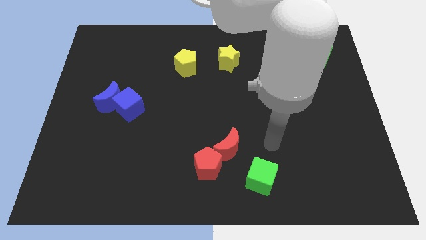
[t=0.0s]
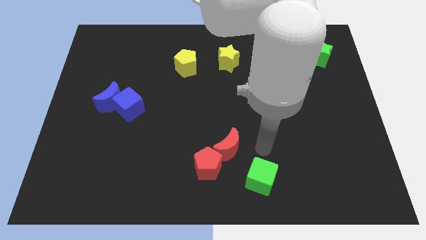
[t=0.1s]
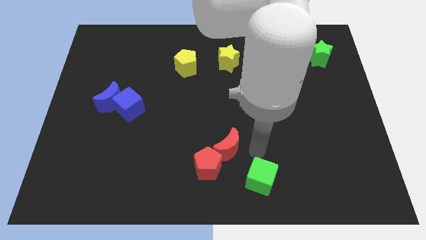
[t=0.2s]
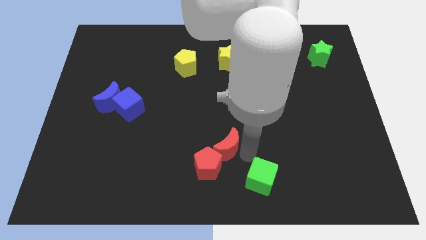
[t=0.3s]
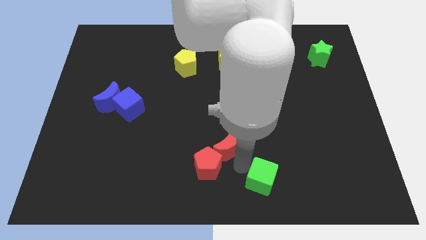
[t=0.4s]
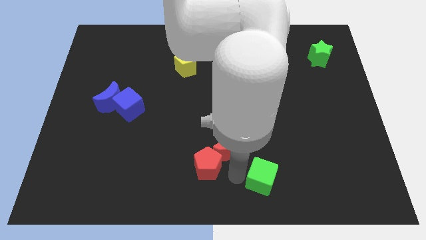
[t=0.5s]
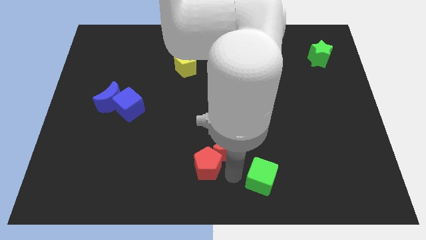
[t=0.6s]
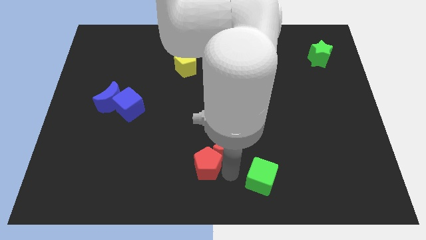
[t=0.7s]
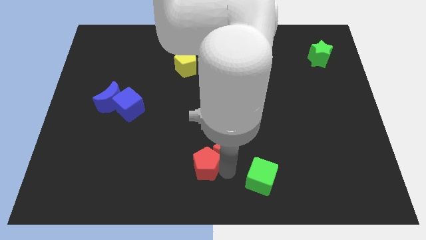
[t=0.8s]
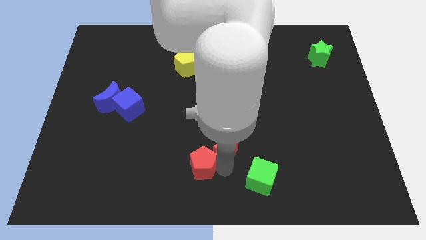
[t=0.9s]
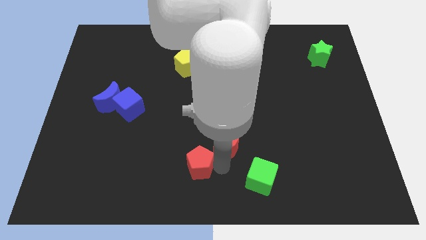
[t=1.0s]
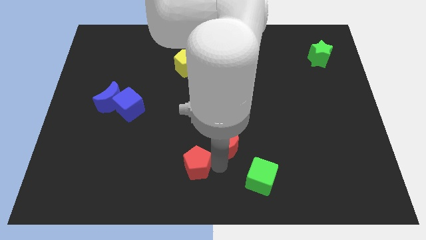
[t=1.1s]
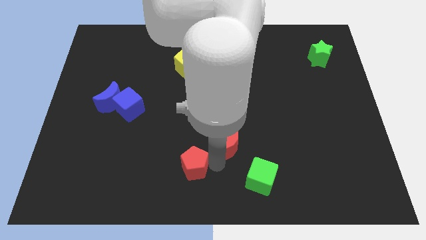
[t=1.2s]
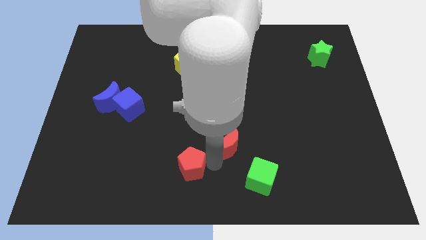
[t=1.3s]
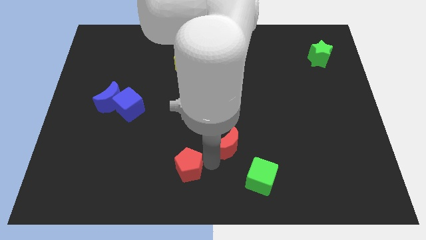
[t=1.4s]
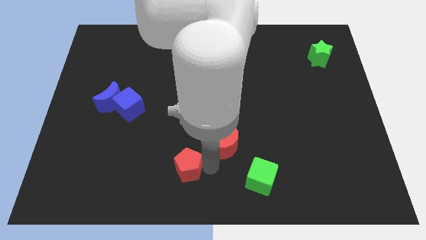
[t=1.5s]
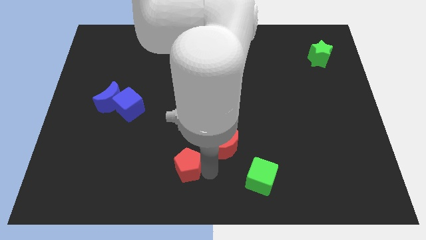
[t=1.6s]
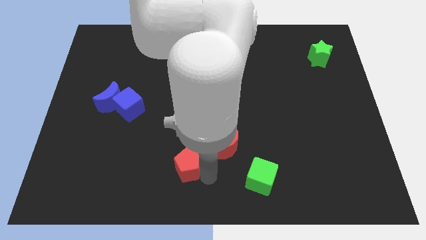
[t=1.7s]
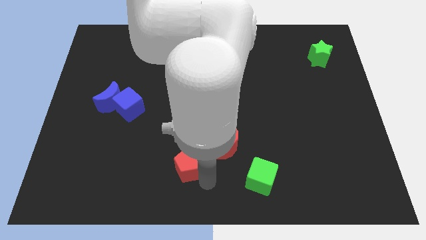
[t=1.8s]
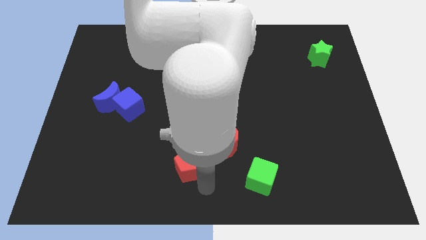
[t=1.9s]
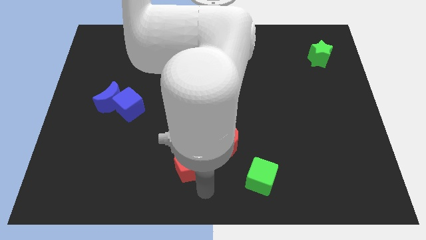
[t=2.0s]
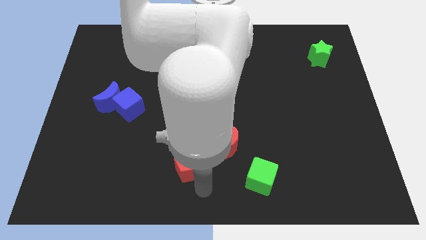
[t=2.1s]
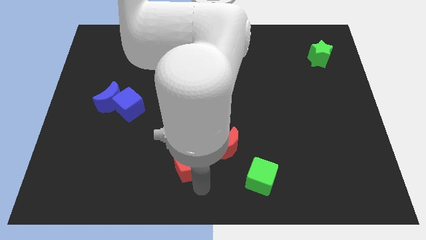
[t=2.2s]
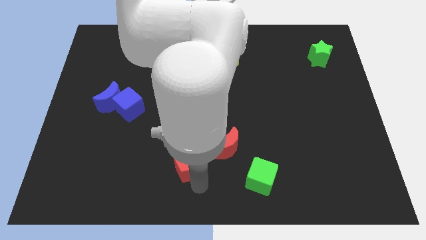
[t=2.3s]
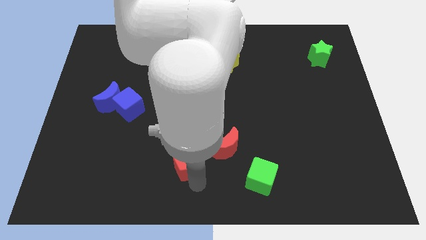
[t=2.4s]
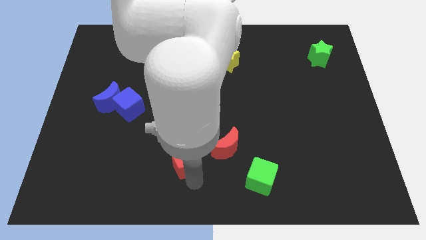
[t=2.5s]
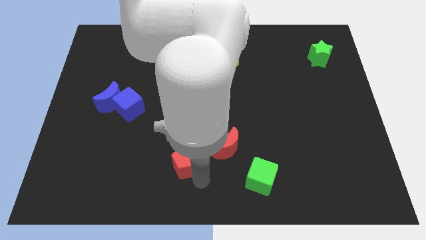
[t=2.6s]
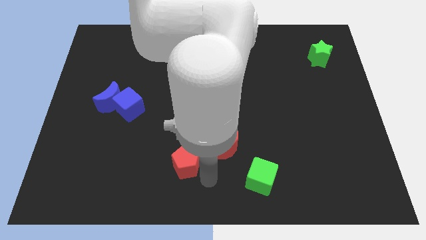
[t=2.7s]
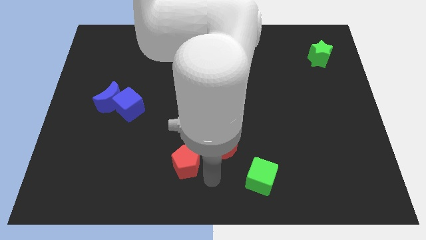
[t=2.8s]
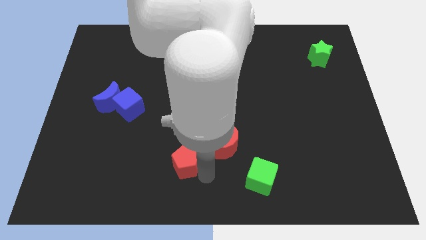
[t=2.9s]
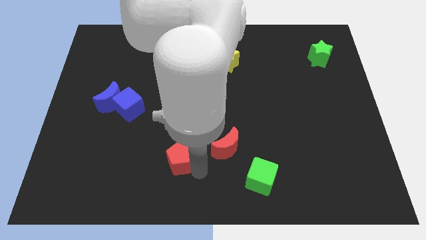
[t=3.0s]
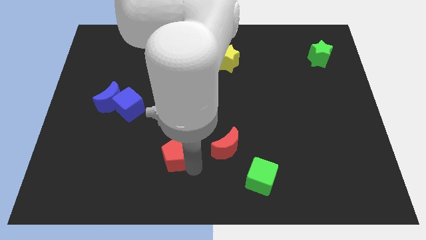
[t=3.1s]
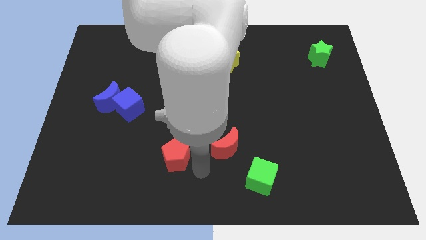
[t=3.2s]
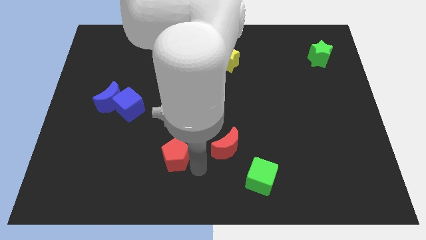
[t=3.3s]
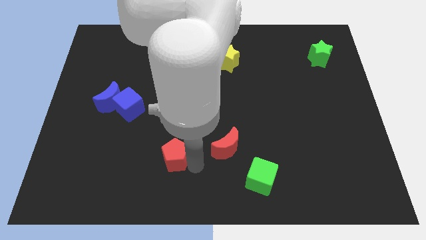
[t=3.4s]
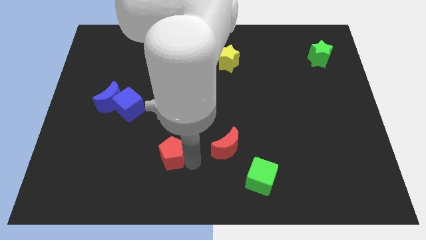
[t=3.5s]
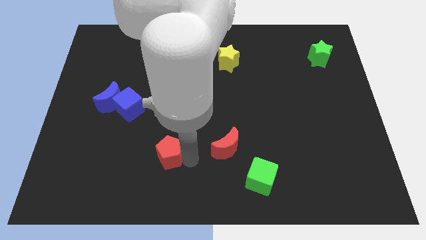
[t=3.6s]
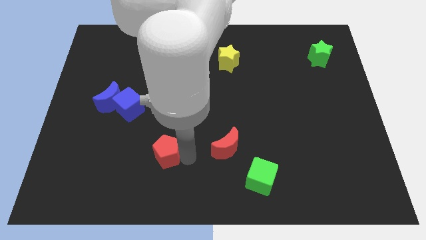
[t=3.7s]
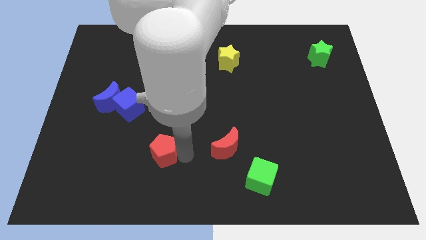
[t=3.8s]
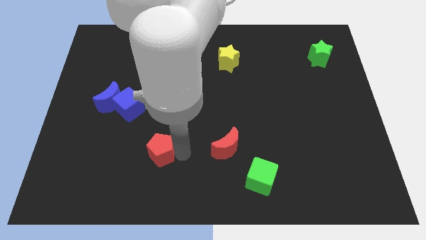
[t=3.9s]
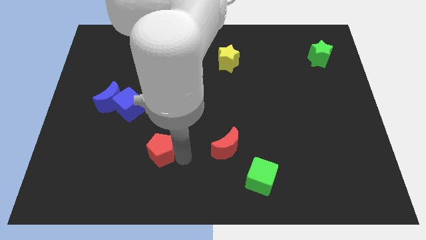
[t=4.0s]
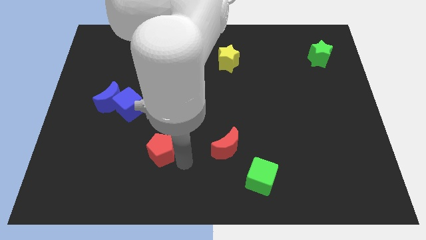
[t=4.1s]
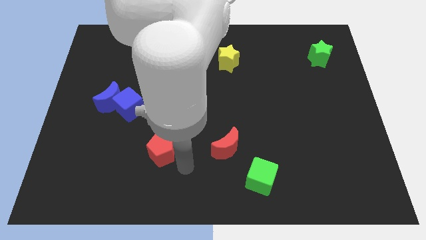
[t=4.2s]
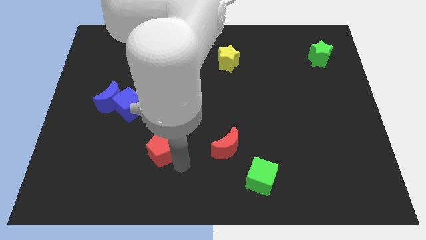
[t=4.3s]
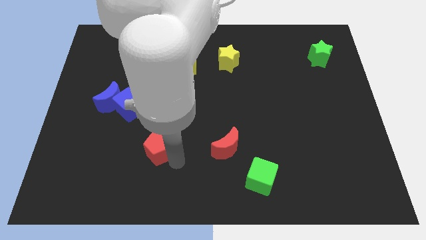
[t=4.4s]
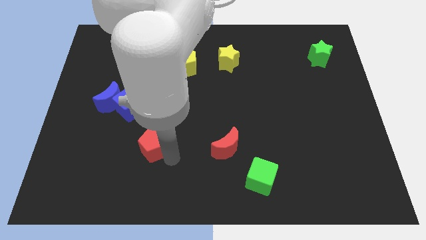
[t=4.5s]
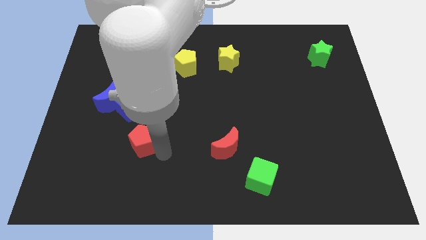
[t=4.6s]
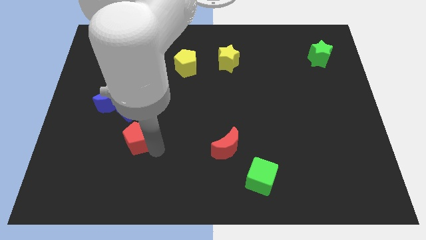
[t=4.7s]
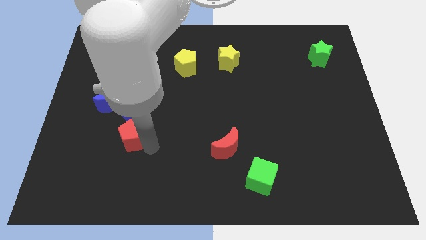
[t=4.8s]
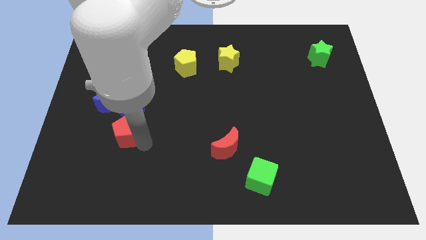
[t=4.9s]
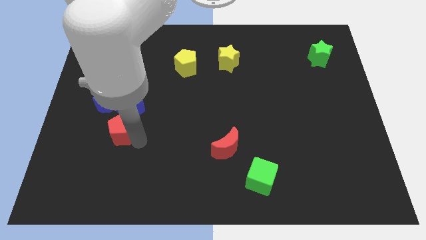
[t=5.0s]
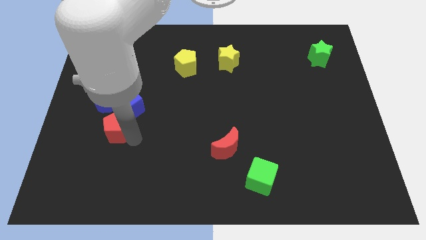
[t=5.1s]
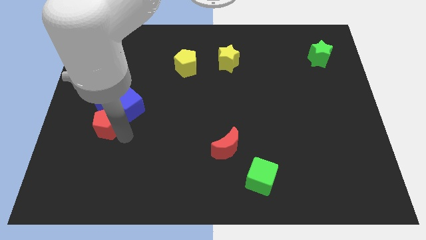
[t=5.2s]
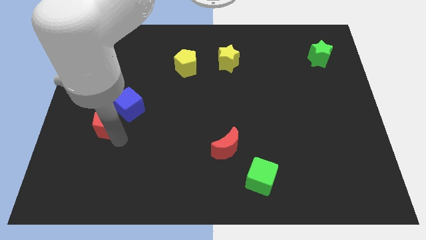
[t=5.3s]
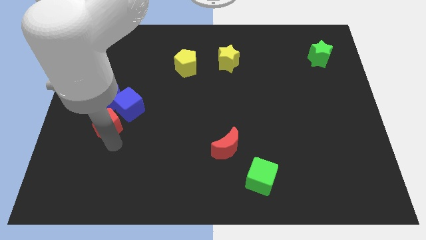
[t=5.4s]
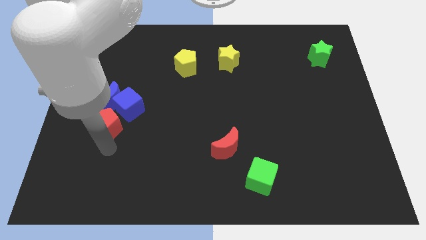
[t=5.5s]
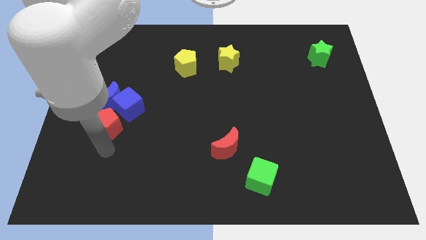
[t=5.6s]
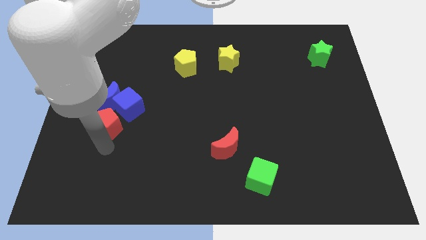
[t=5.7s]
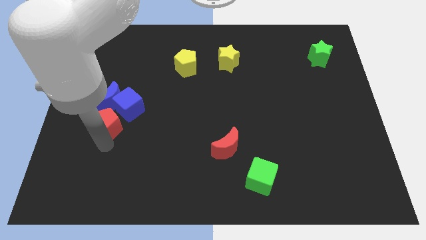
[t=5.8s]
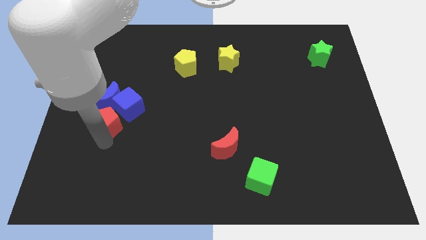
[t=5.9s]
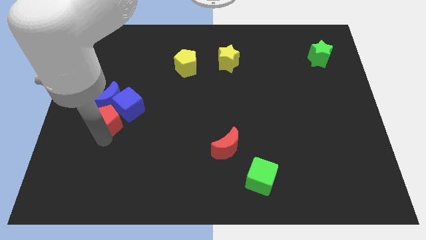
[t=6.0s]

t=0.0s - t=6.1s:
put the red pentagon towards the blue moon

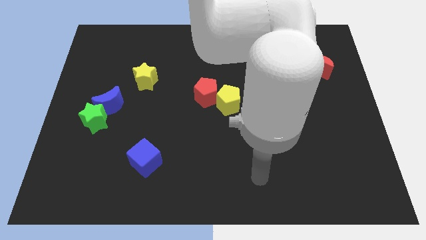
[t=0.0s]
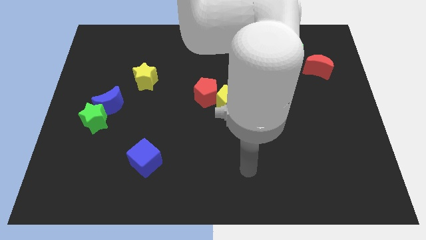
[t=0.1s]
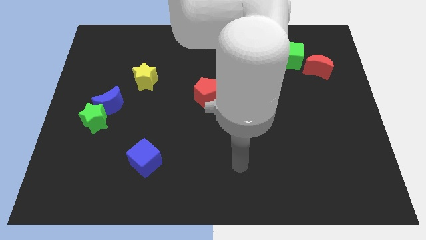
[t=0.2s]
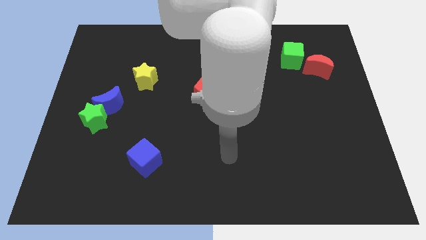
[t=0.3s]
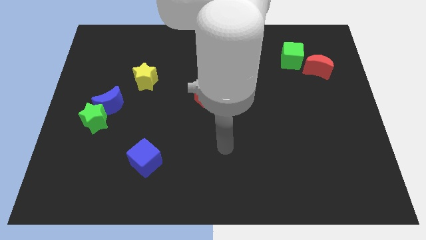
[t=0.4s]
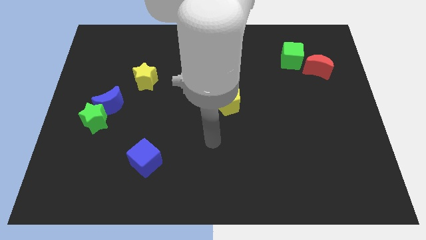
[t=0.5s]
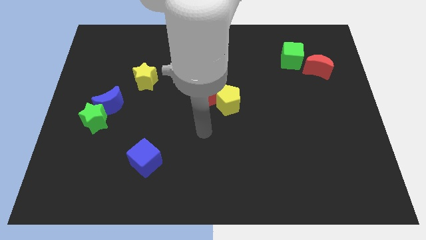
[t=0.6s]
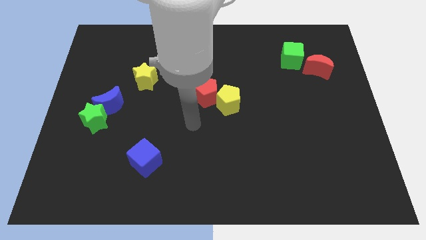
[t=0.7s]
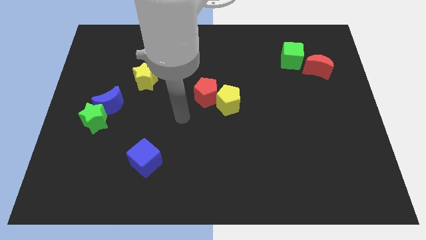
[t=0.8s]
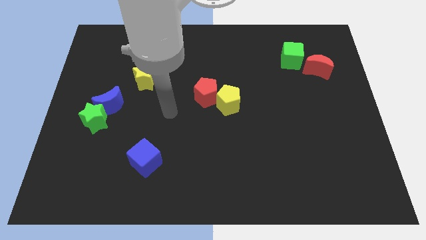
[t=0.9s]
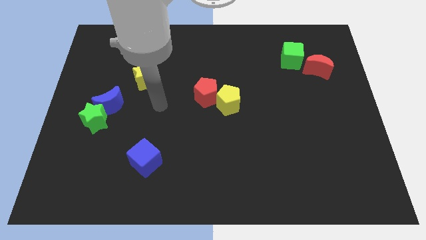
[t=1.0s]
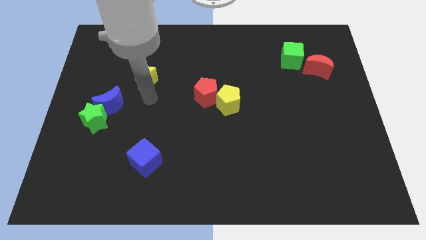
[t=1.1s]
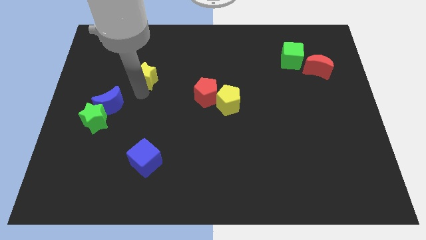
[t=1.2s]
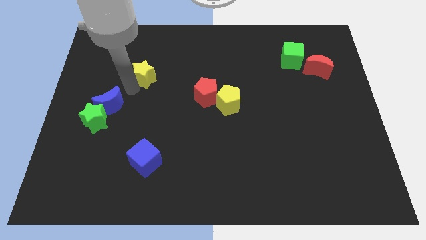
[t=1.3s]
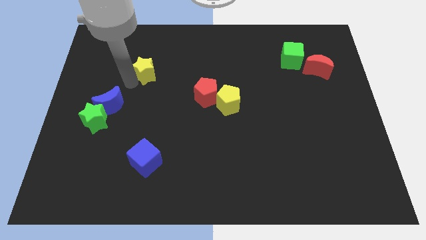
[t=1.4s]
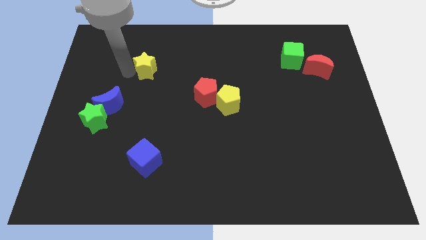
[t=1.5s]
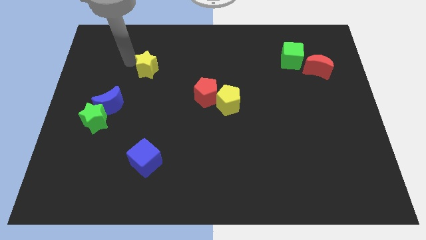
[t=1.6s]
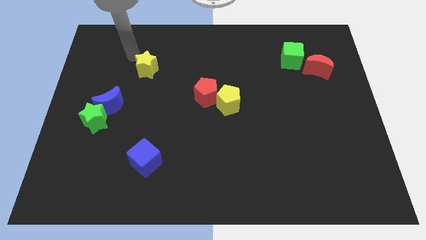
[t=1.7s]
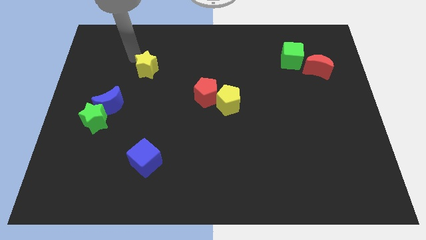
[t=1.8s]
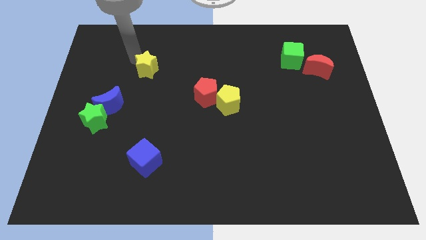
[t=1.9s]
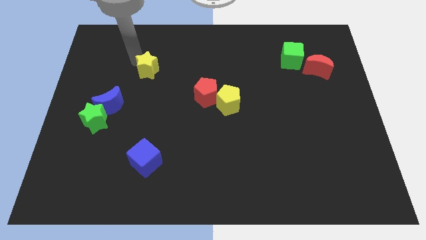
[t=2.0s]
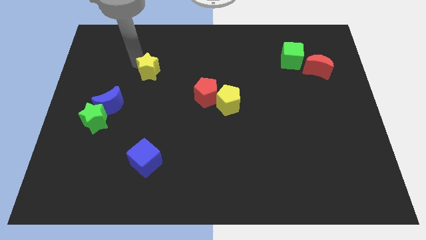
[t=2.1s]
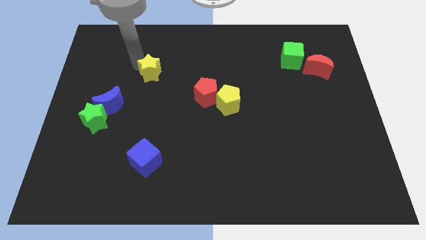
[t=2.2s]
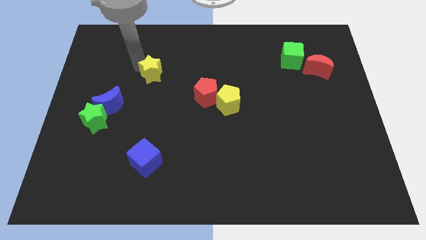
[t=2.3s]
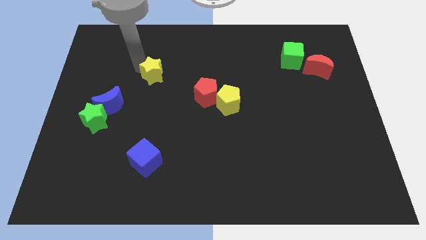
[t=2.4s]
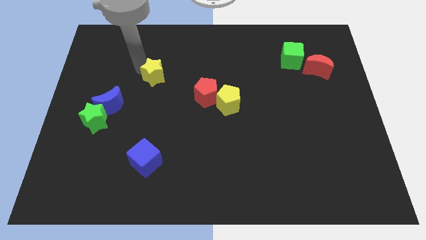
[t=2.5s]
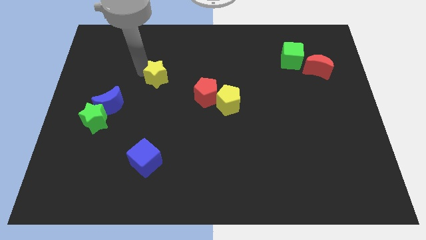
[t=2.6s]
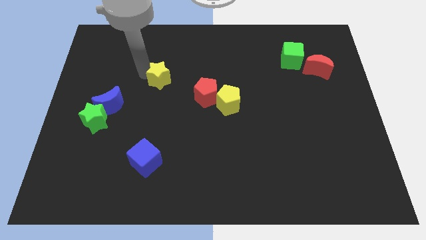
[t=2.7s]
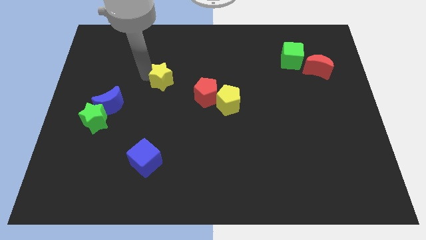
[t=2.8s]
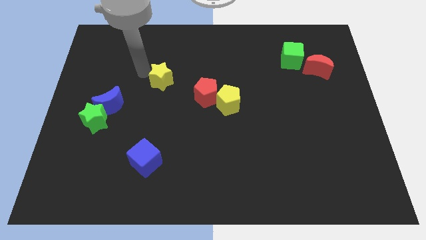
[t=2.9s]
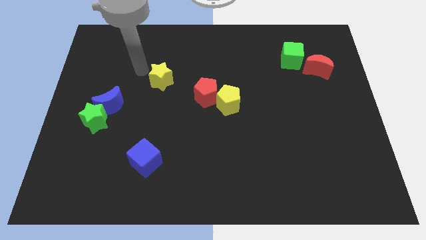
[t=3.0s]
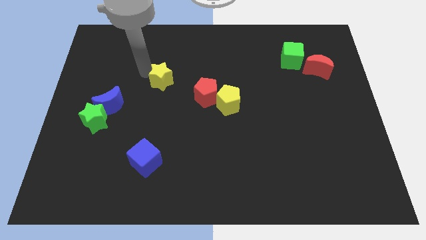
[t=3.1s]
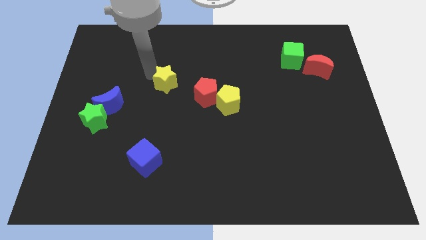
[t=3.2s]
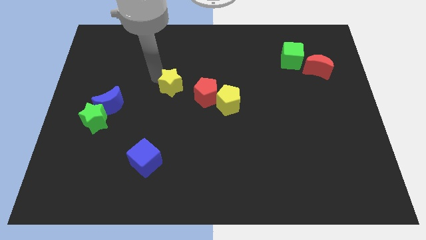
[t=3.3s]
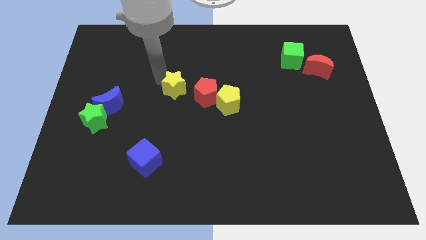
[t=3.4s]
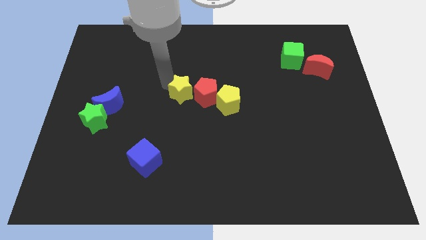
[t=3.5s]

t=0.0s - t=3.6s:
push the yellow star next to the red pentagon
